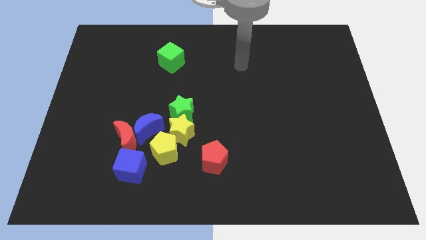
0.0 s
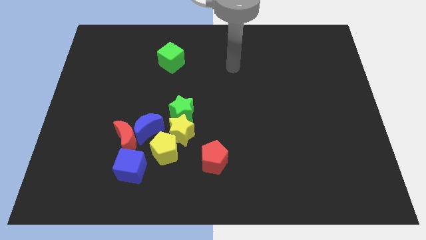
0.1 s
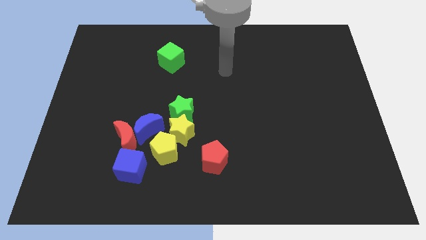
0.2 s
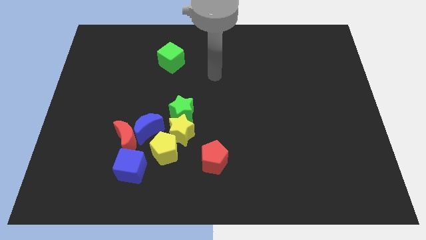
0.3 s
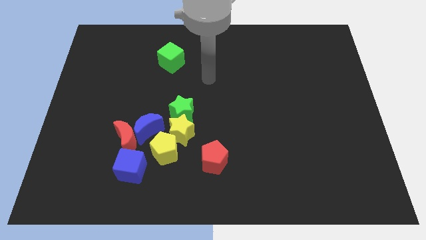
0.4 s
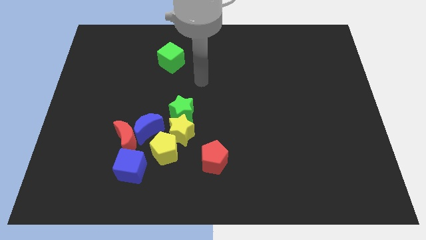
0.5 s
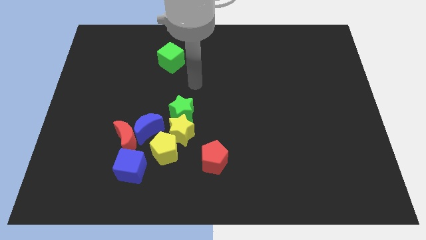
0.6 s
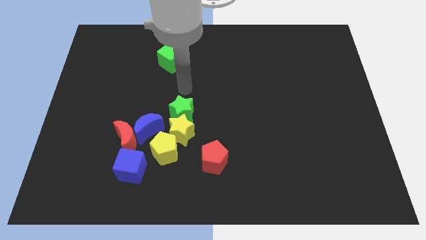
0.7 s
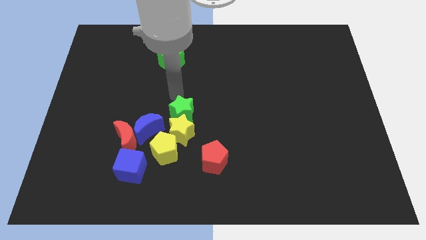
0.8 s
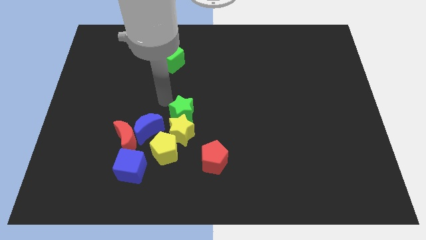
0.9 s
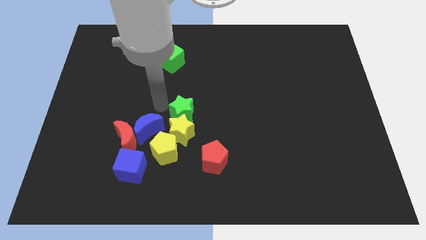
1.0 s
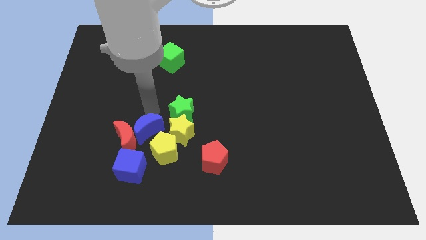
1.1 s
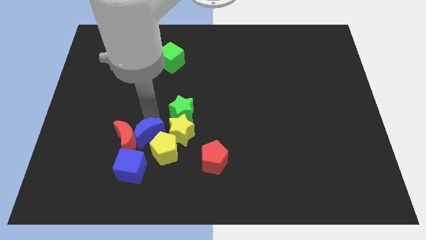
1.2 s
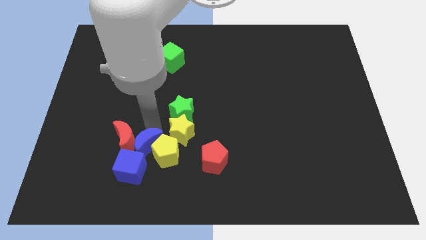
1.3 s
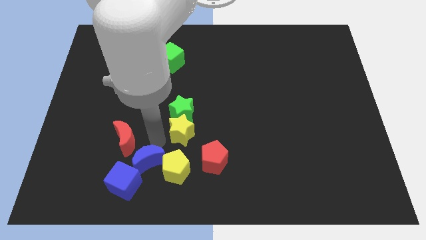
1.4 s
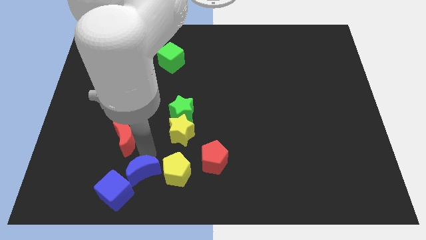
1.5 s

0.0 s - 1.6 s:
separate the red moon from the blue moon, blue cube, and yellow pentagon

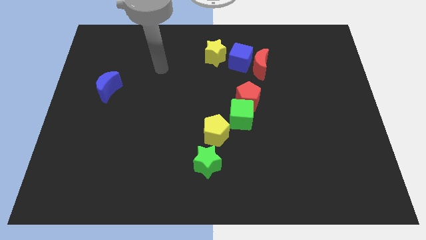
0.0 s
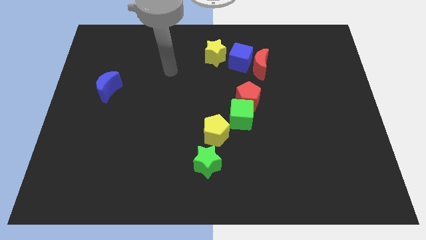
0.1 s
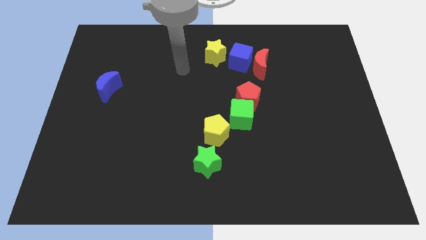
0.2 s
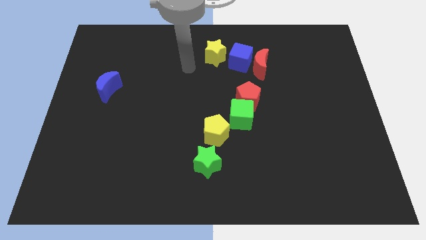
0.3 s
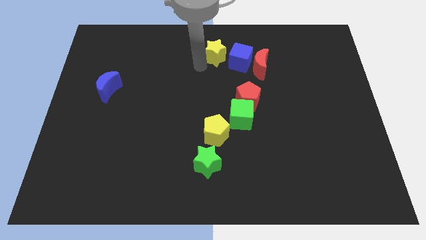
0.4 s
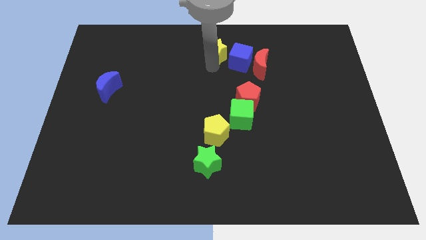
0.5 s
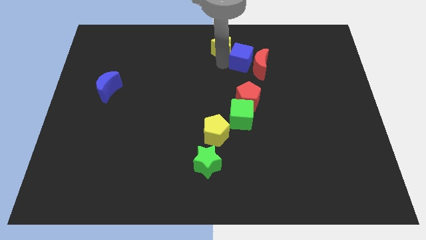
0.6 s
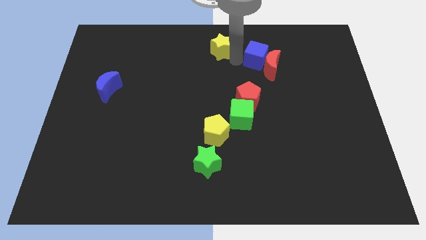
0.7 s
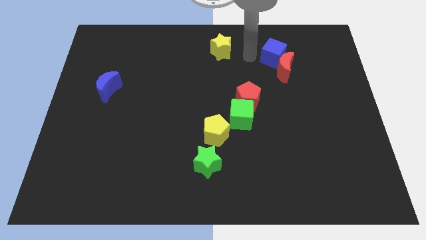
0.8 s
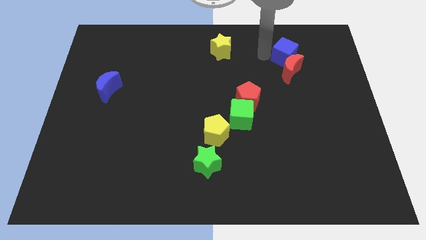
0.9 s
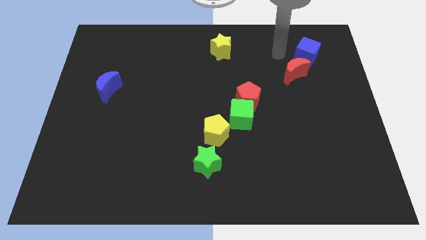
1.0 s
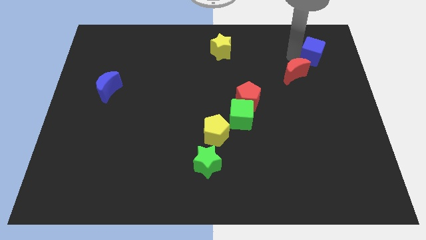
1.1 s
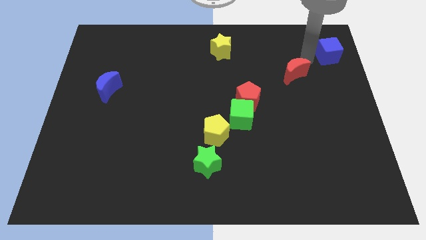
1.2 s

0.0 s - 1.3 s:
pull the red moon apart from the blue cube

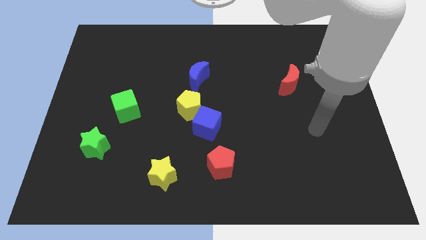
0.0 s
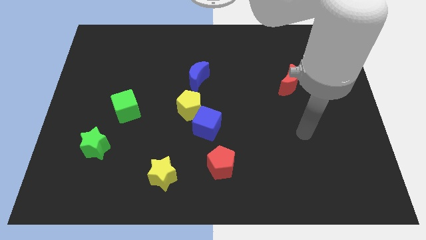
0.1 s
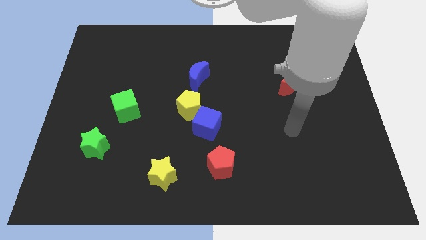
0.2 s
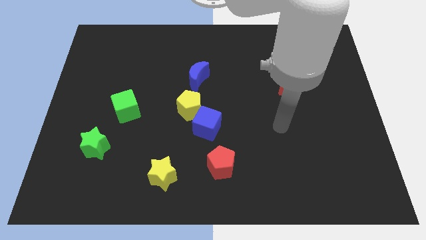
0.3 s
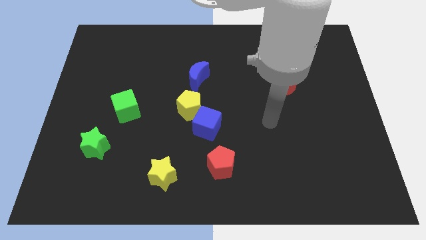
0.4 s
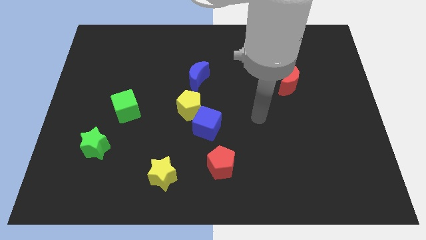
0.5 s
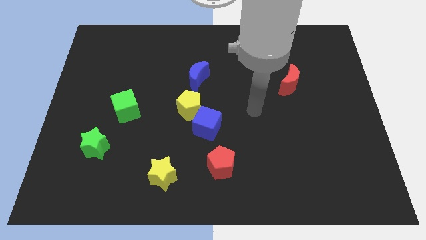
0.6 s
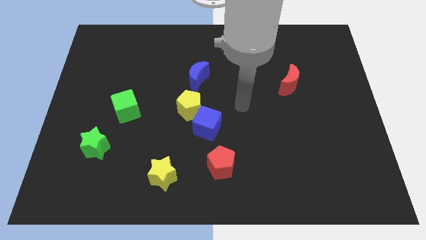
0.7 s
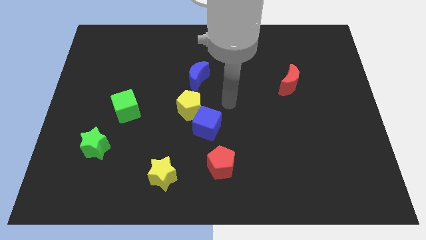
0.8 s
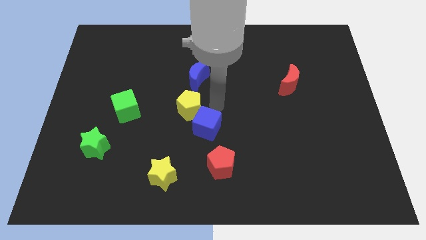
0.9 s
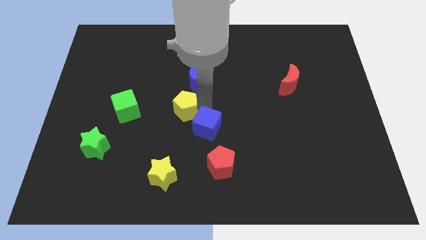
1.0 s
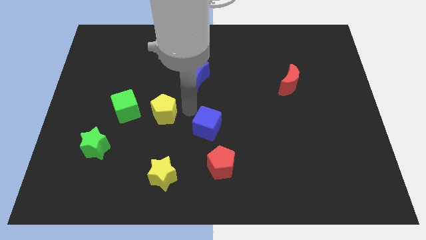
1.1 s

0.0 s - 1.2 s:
move the blue cube away from the yellow pentagon

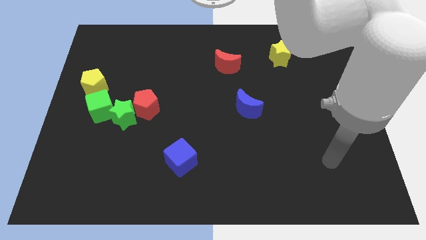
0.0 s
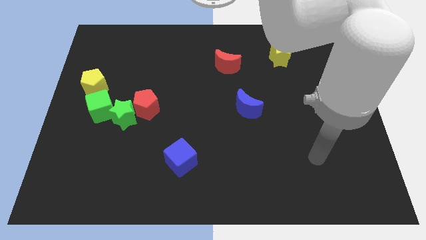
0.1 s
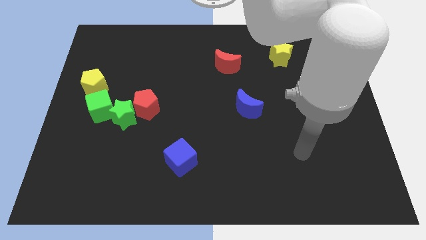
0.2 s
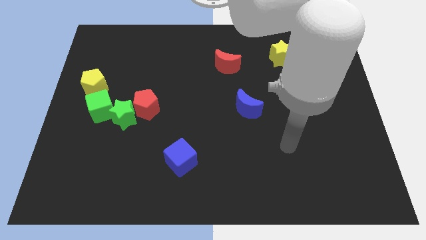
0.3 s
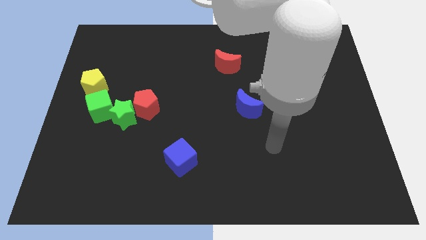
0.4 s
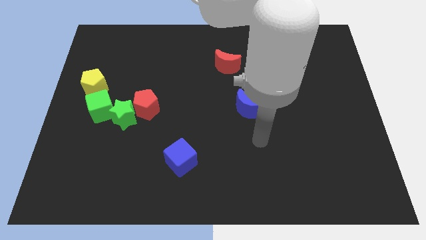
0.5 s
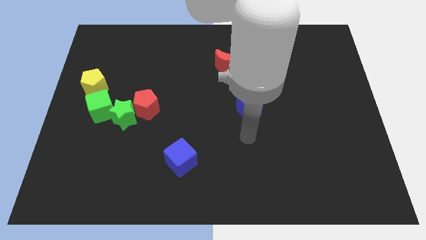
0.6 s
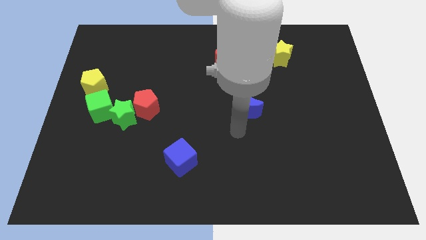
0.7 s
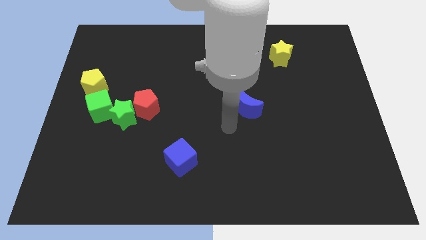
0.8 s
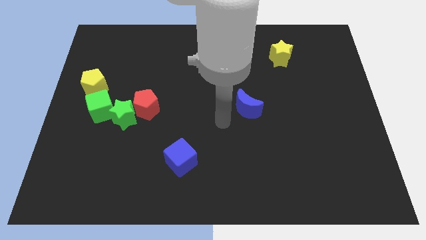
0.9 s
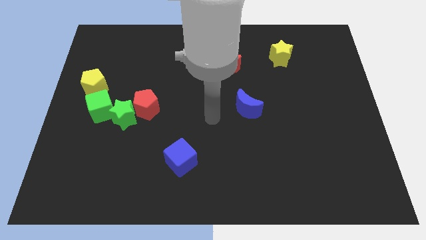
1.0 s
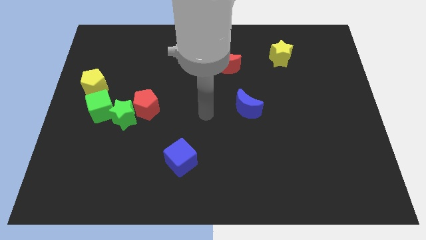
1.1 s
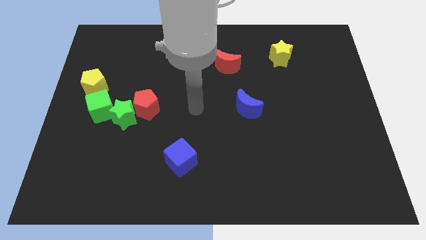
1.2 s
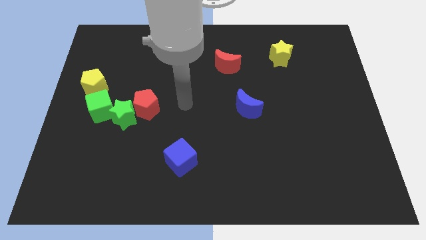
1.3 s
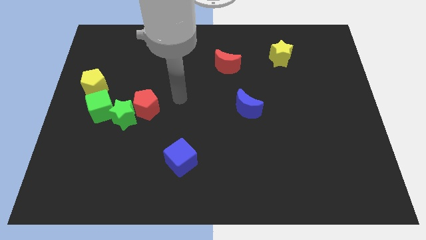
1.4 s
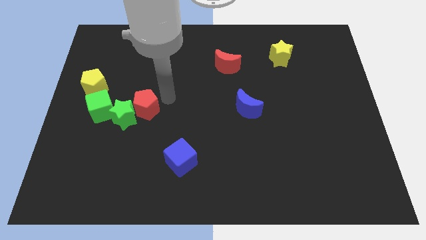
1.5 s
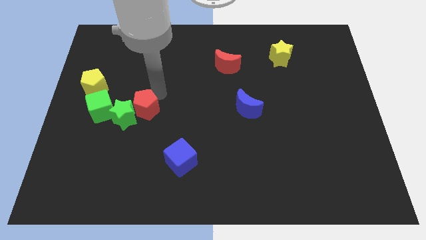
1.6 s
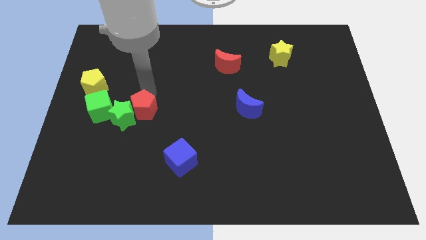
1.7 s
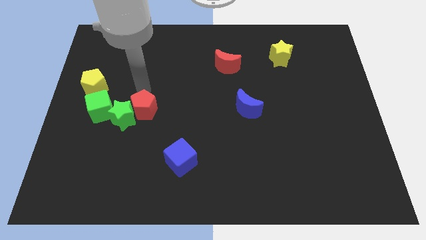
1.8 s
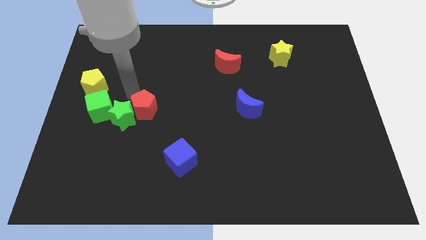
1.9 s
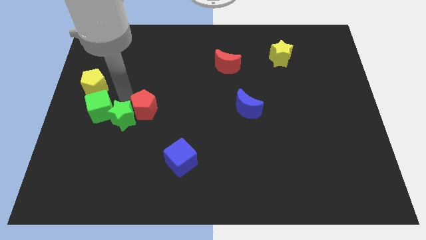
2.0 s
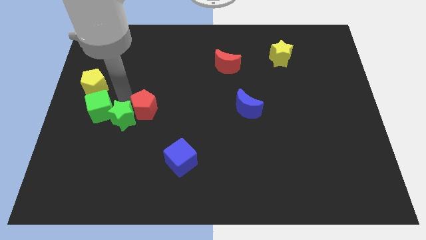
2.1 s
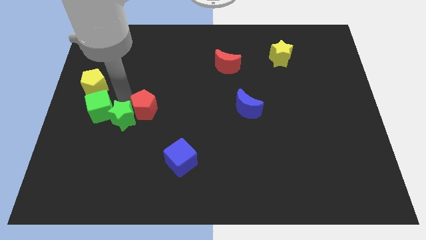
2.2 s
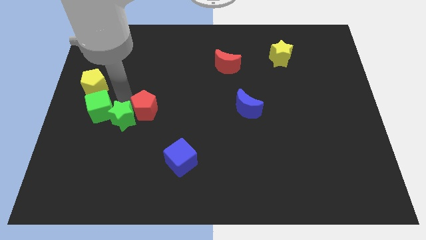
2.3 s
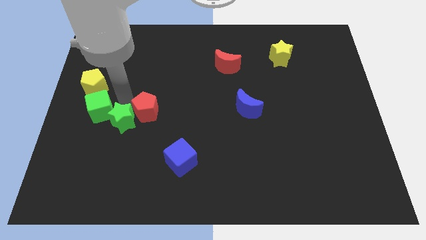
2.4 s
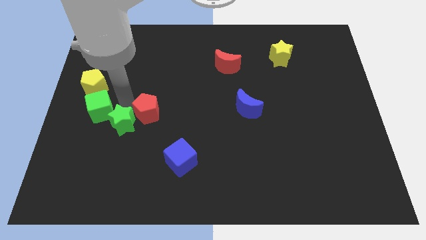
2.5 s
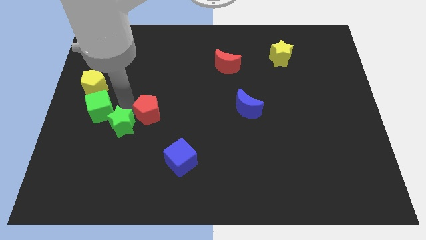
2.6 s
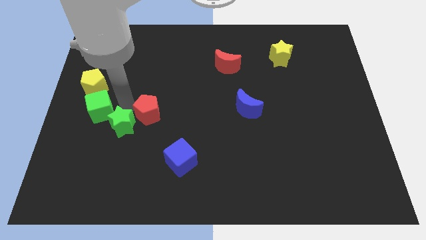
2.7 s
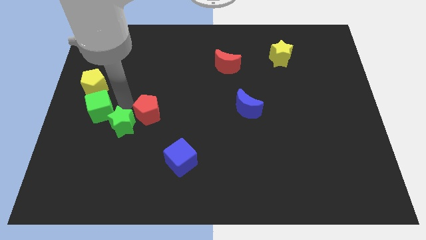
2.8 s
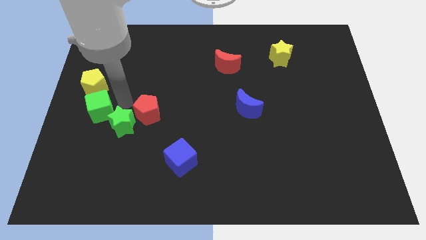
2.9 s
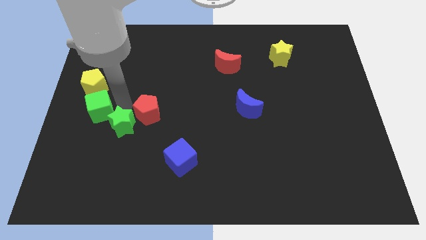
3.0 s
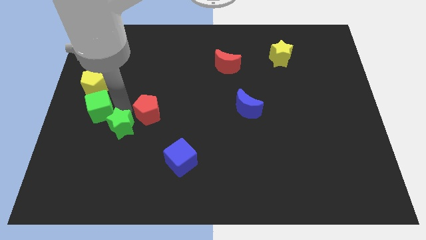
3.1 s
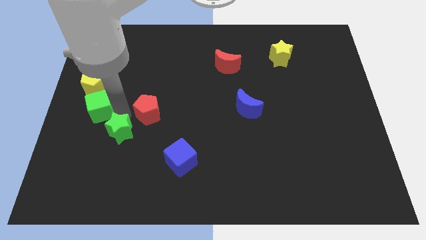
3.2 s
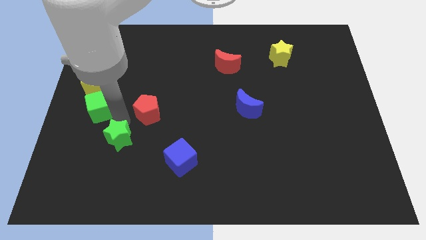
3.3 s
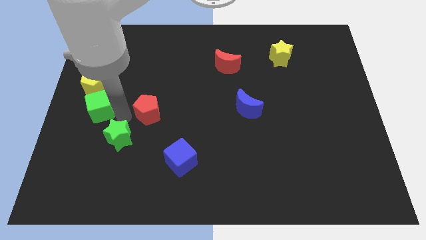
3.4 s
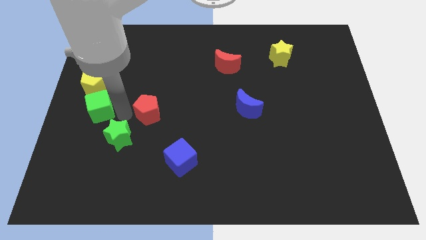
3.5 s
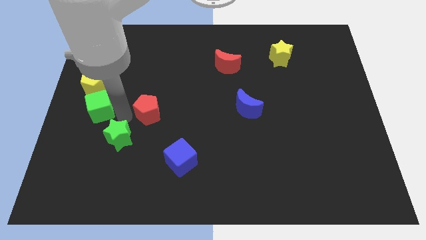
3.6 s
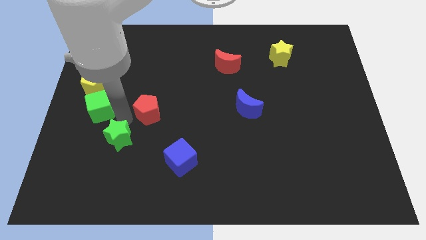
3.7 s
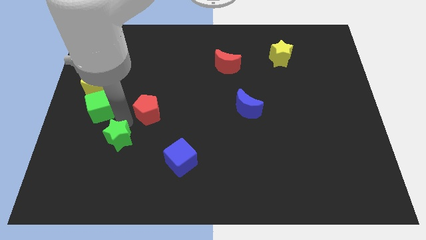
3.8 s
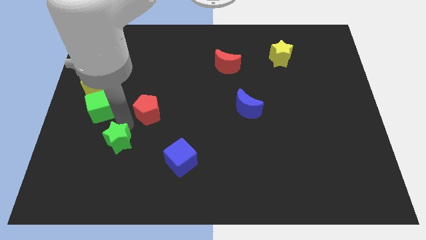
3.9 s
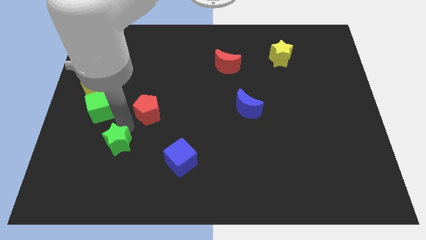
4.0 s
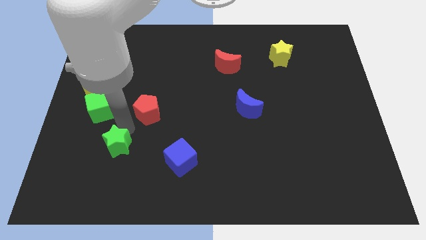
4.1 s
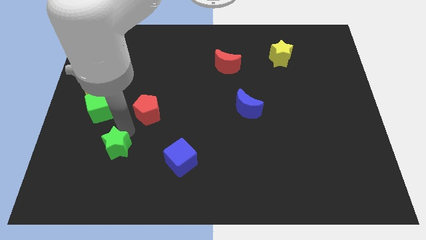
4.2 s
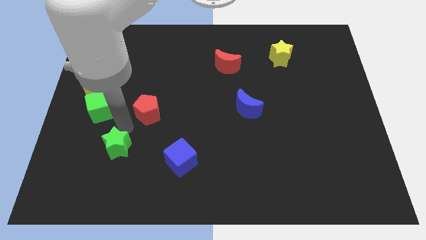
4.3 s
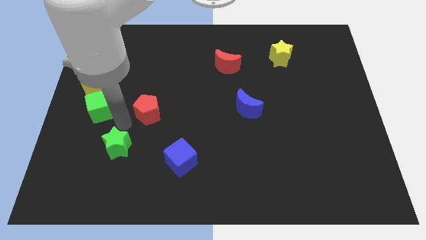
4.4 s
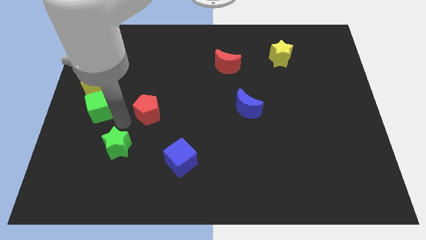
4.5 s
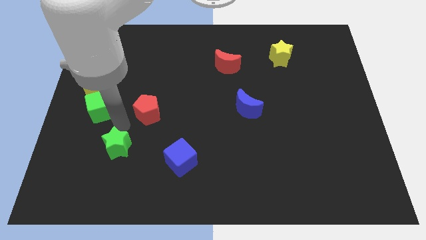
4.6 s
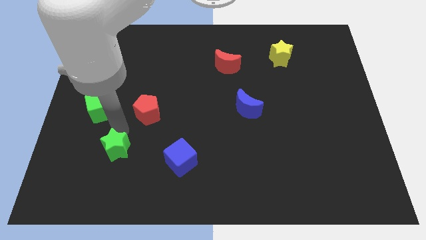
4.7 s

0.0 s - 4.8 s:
separate the green star from the green cube and red pentagon

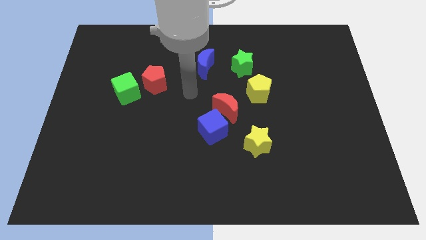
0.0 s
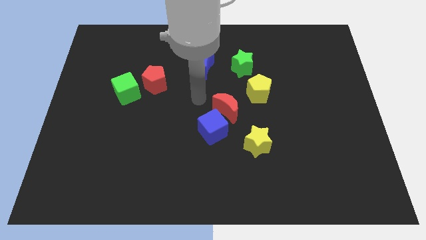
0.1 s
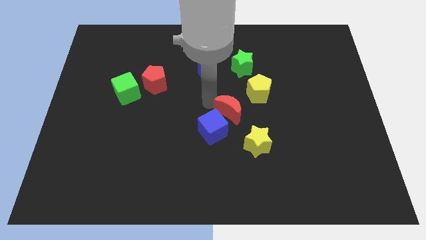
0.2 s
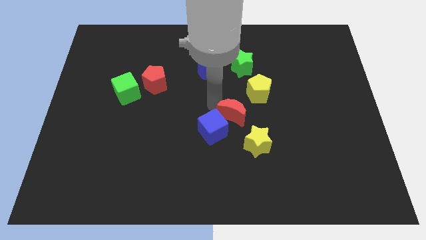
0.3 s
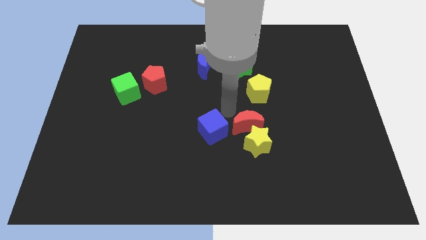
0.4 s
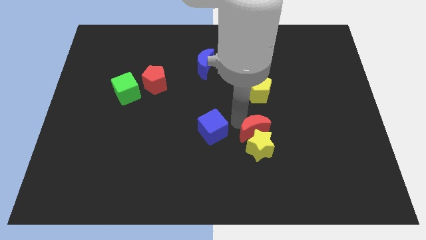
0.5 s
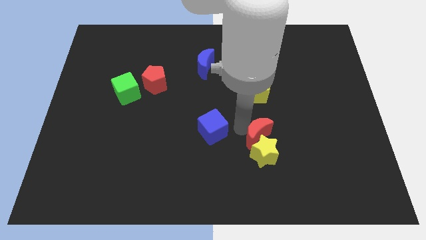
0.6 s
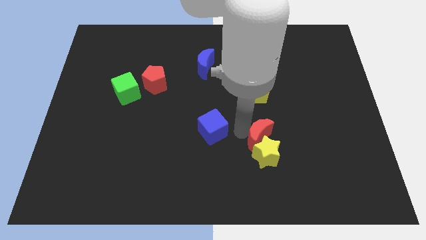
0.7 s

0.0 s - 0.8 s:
move the blue cube away from the red moon
